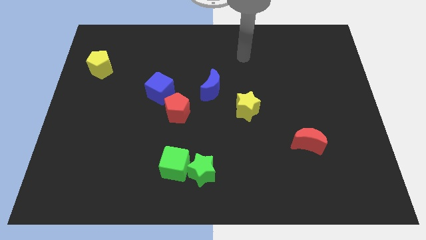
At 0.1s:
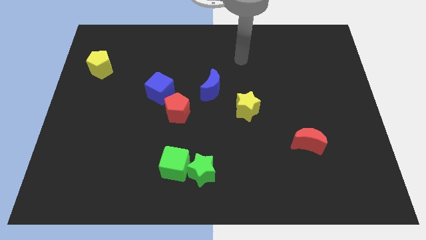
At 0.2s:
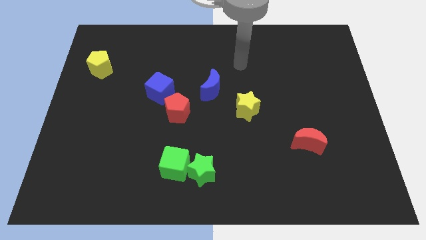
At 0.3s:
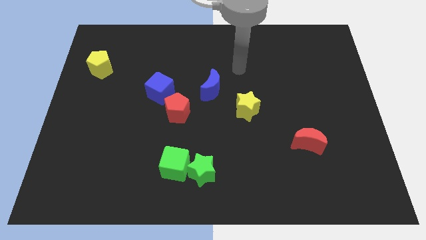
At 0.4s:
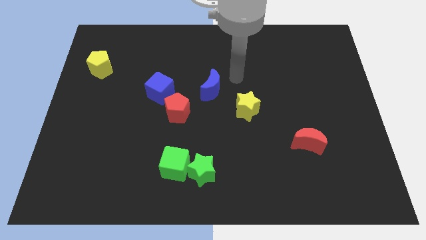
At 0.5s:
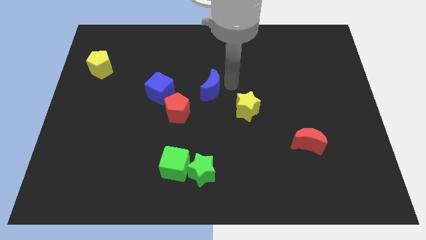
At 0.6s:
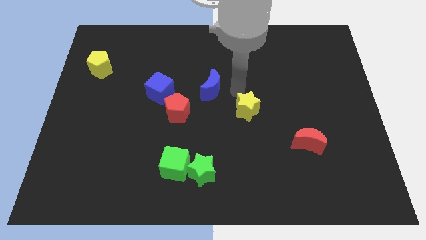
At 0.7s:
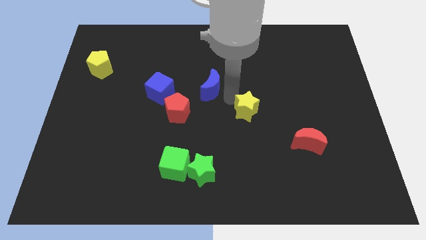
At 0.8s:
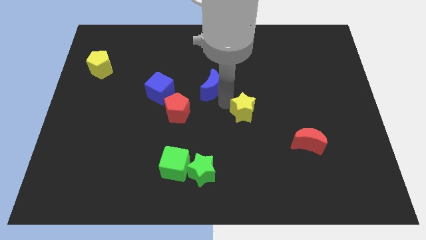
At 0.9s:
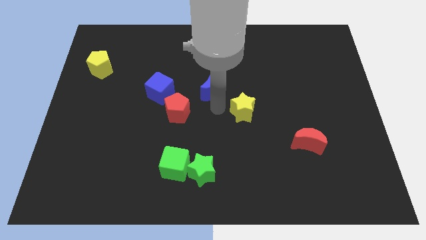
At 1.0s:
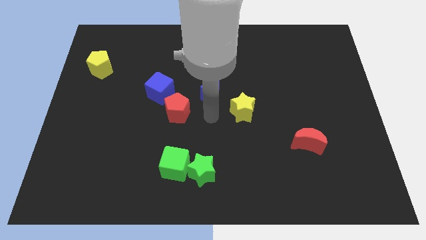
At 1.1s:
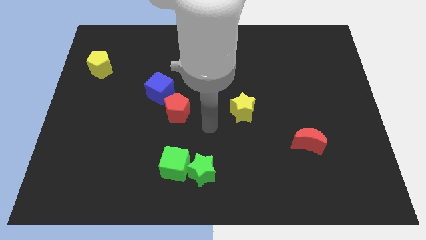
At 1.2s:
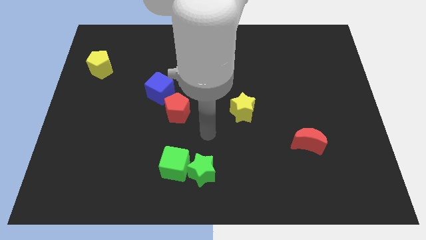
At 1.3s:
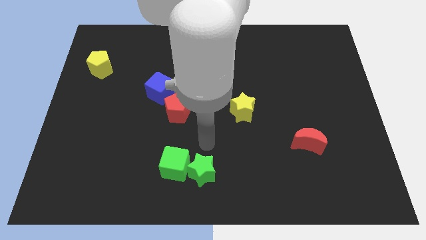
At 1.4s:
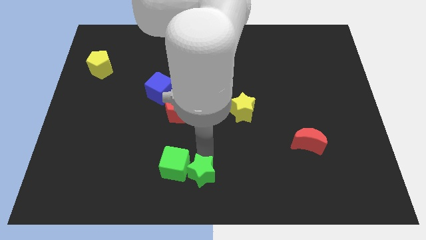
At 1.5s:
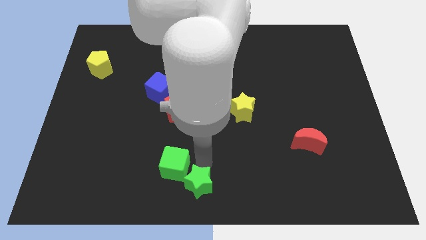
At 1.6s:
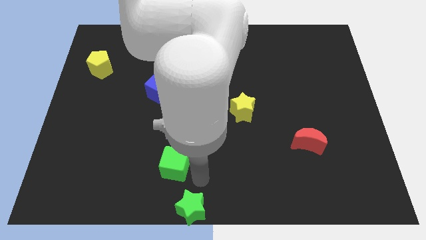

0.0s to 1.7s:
move the green cube away from the green star

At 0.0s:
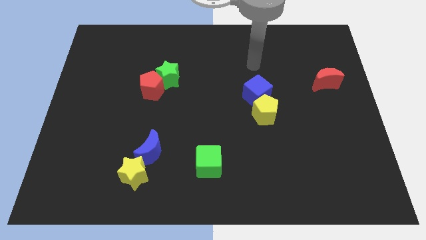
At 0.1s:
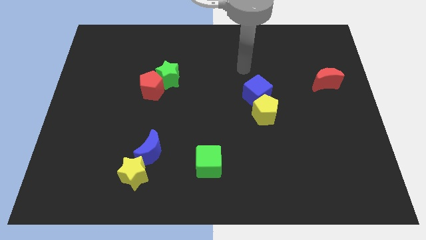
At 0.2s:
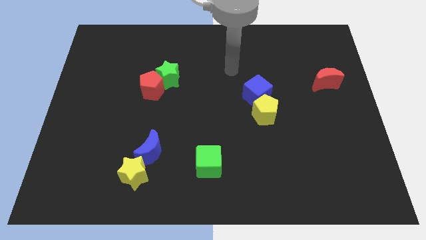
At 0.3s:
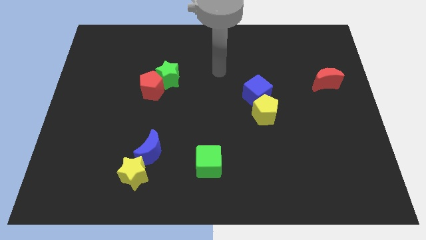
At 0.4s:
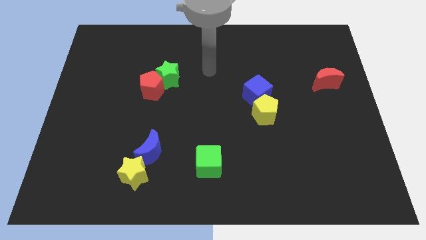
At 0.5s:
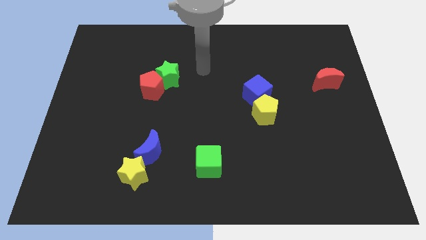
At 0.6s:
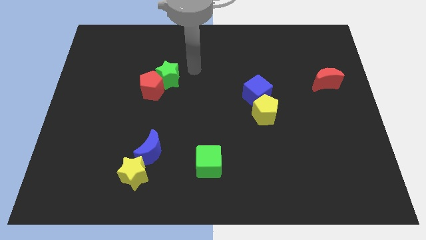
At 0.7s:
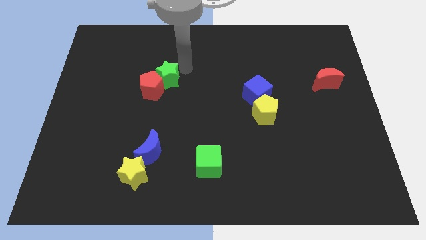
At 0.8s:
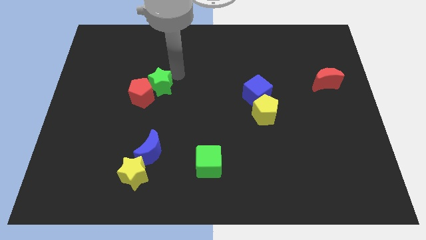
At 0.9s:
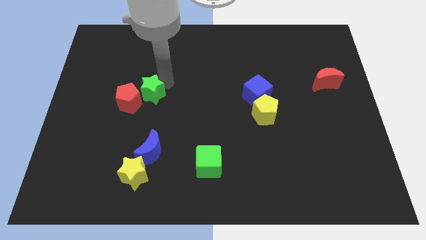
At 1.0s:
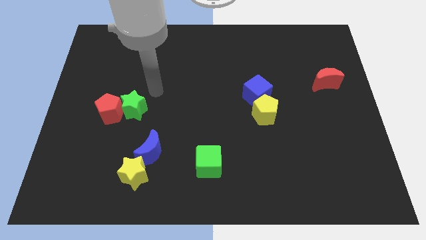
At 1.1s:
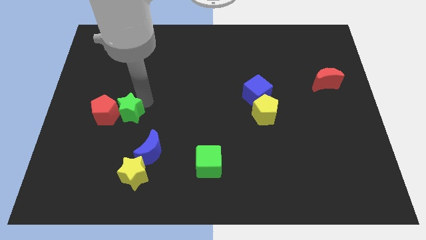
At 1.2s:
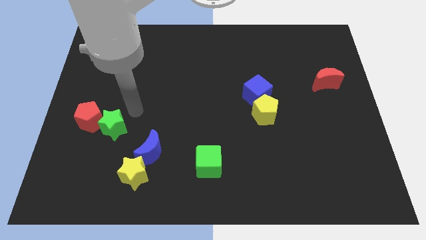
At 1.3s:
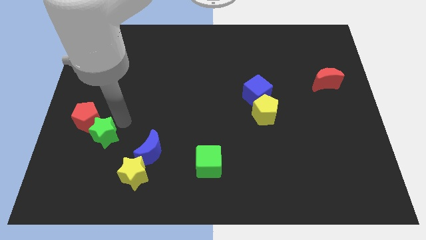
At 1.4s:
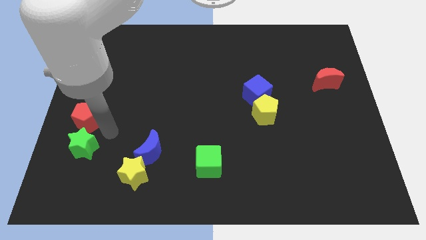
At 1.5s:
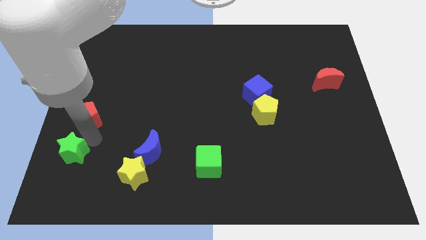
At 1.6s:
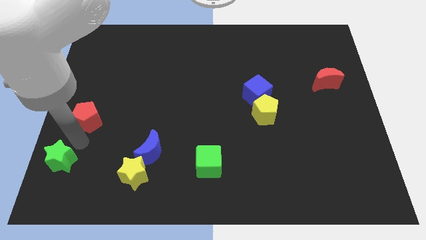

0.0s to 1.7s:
move the red pentagon away from the green star

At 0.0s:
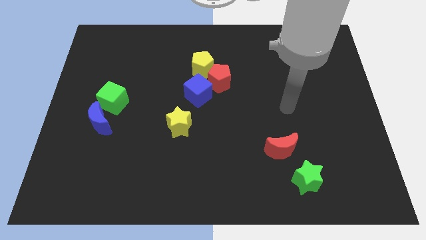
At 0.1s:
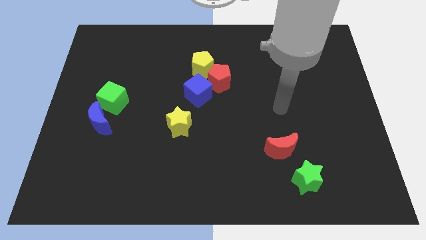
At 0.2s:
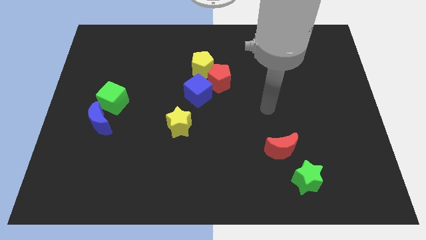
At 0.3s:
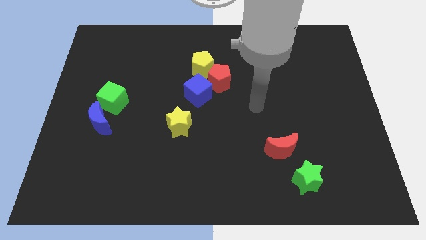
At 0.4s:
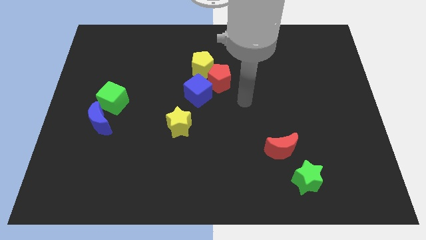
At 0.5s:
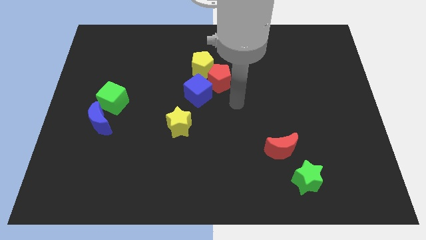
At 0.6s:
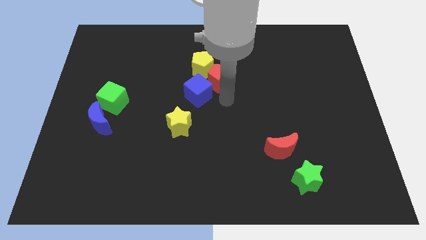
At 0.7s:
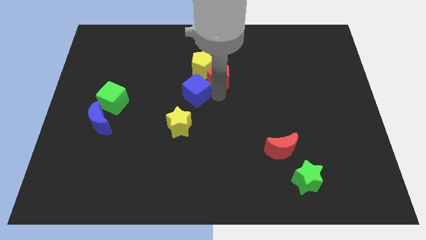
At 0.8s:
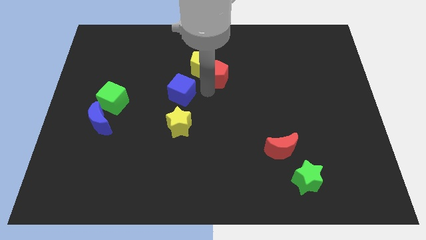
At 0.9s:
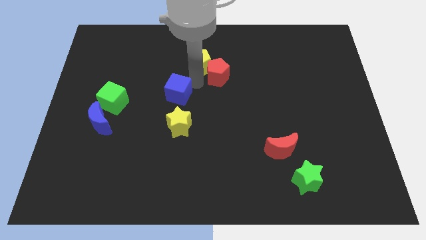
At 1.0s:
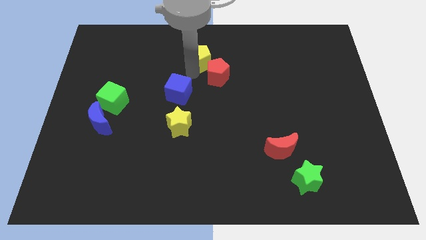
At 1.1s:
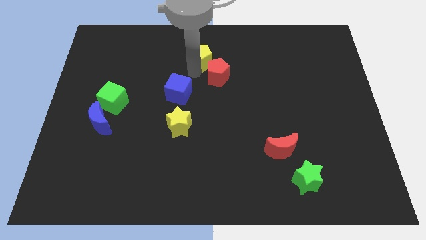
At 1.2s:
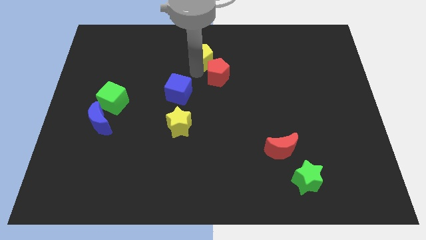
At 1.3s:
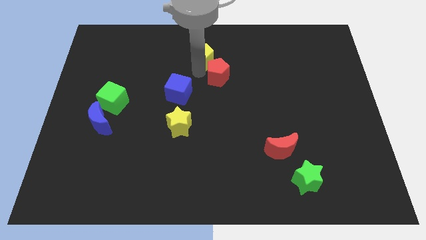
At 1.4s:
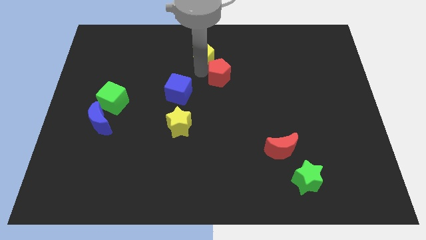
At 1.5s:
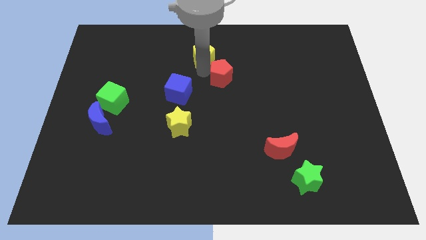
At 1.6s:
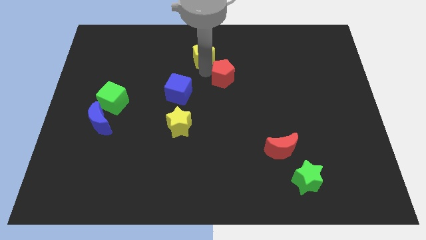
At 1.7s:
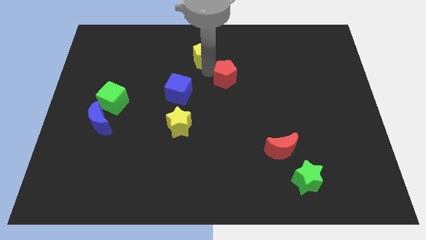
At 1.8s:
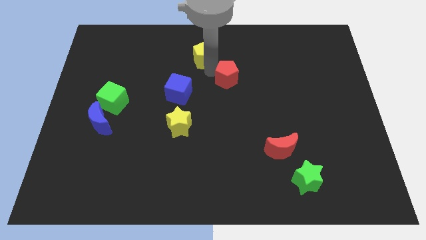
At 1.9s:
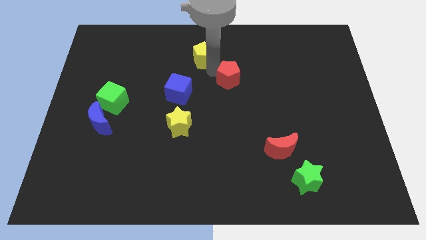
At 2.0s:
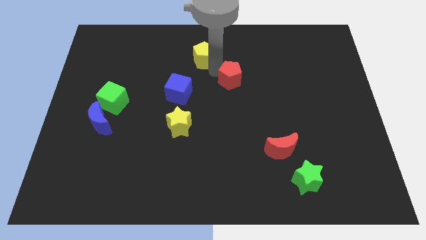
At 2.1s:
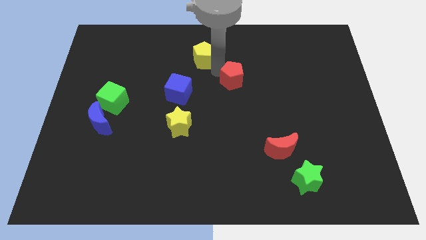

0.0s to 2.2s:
move the red pentagon away from the yellow pentagon and blue cube

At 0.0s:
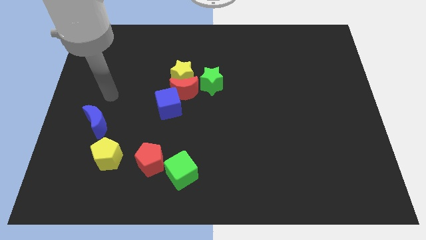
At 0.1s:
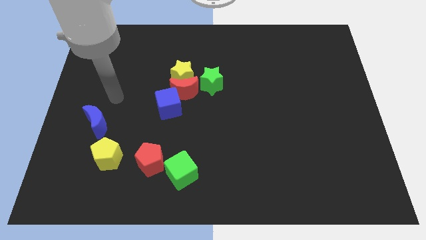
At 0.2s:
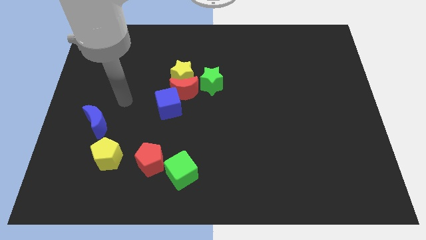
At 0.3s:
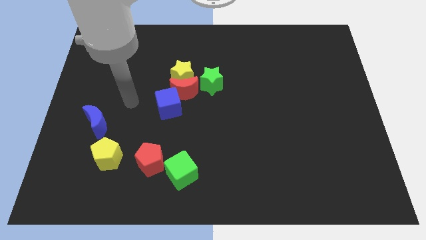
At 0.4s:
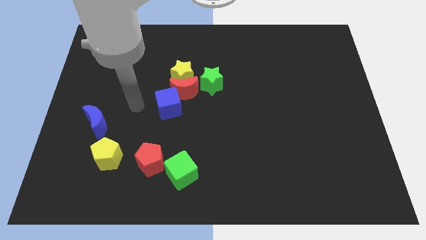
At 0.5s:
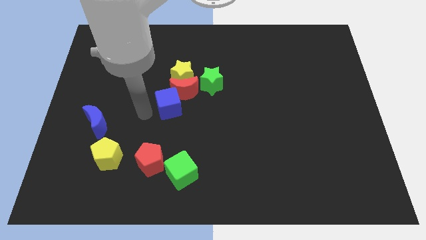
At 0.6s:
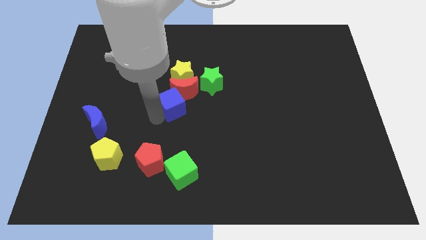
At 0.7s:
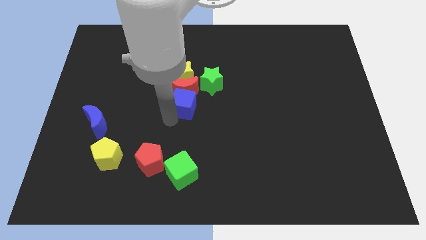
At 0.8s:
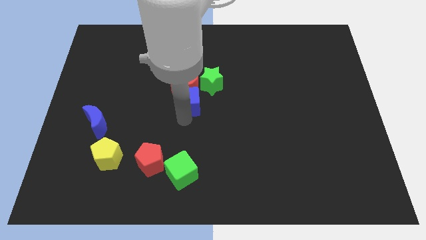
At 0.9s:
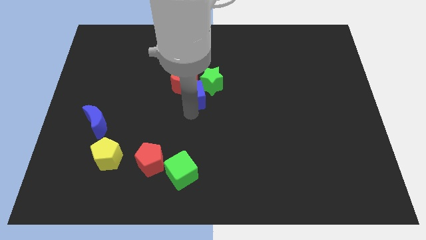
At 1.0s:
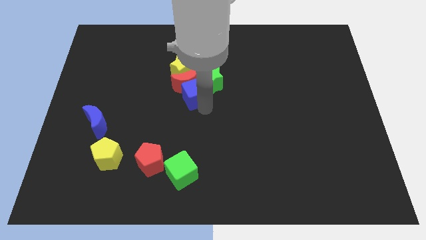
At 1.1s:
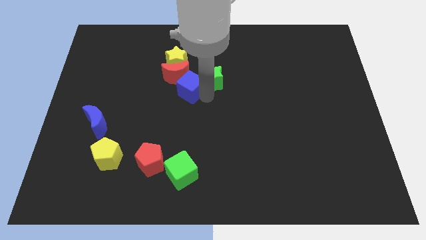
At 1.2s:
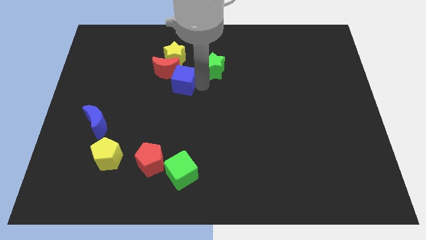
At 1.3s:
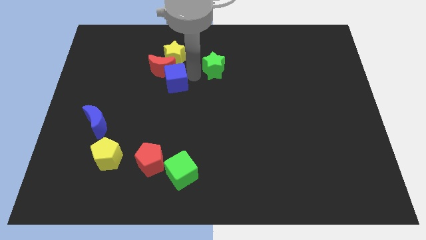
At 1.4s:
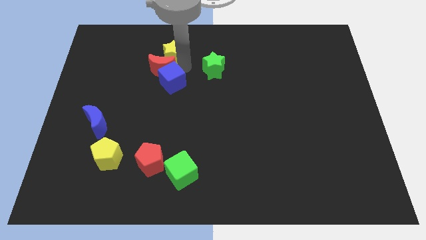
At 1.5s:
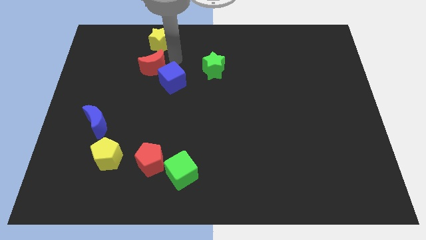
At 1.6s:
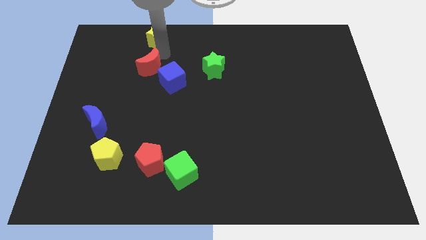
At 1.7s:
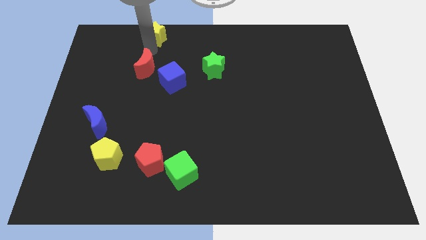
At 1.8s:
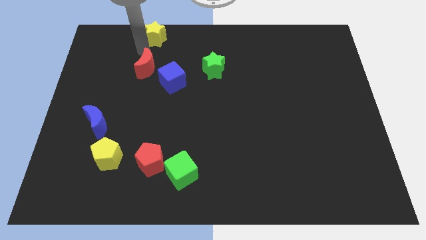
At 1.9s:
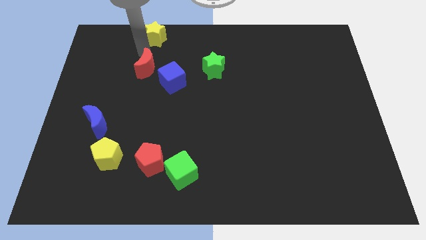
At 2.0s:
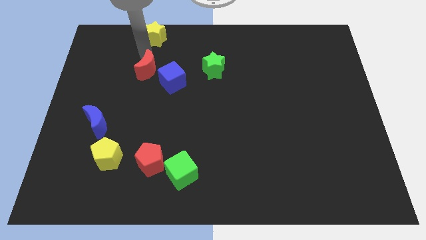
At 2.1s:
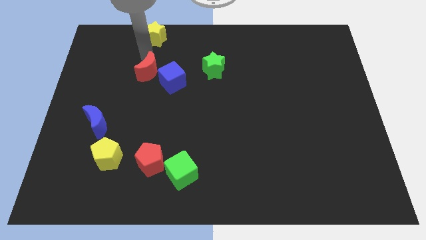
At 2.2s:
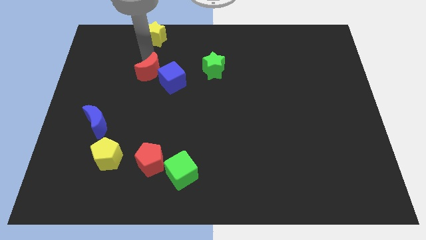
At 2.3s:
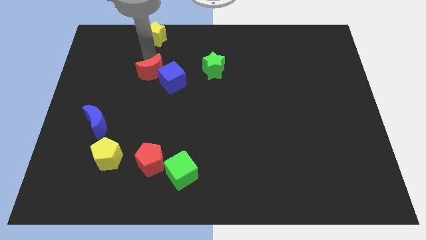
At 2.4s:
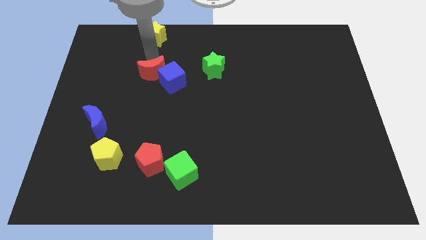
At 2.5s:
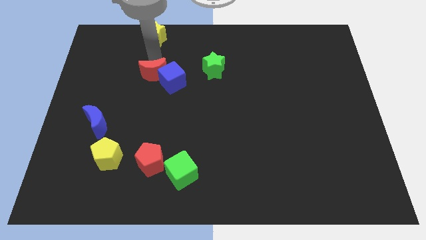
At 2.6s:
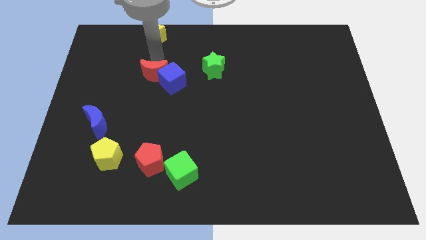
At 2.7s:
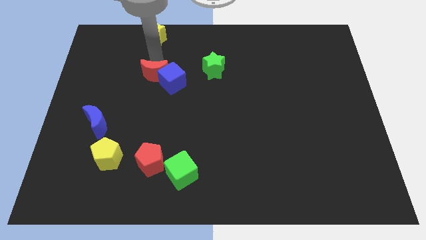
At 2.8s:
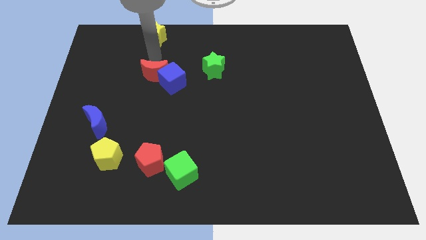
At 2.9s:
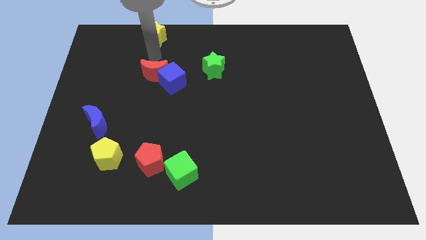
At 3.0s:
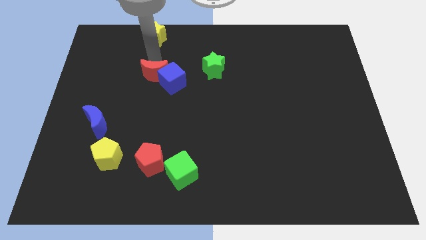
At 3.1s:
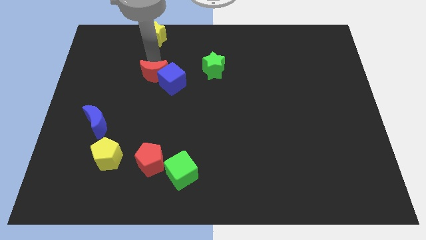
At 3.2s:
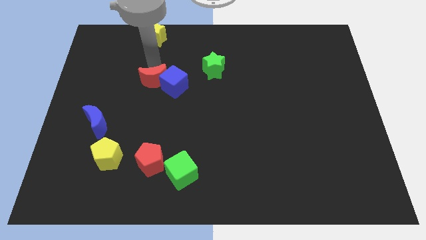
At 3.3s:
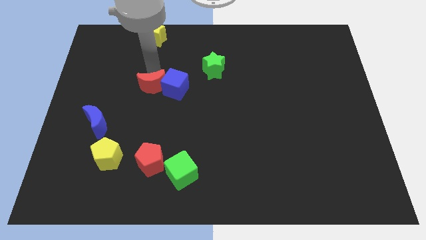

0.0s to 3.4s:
pull the red moon apart from the yellow star, blue cube, and green star

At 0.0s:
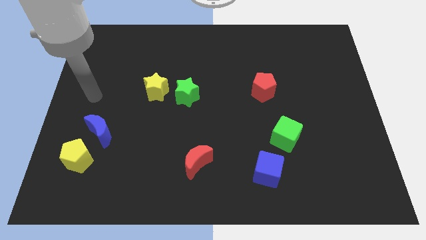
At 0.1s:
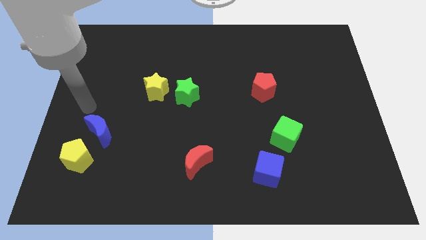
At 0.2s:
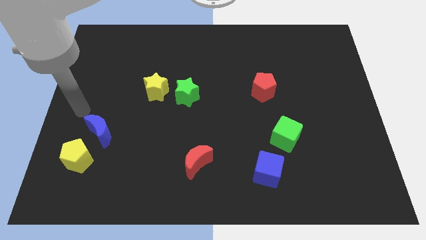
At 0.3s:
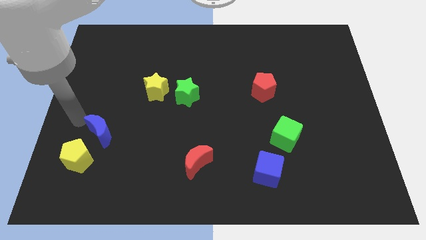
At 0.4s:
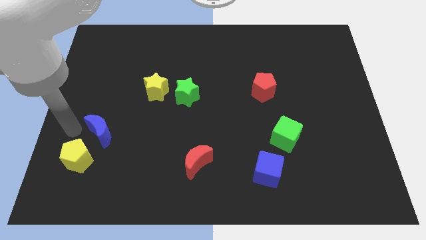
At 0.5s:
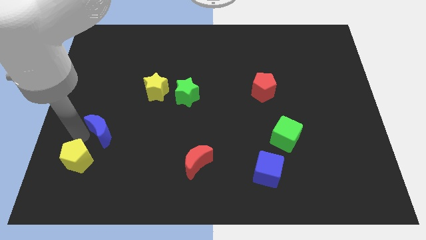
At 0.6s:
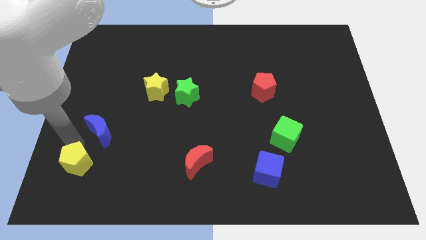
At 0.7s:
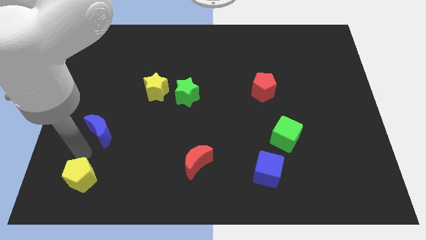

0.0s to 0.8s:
separate the blue moon from the yellow pentagon
